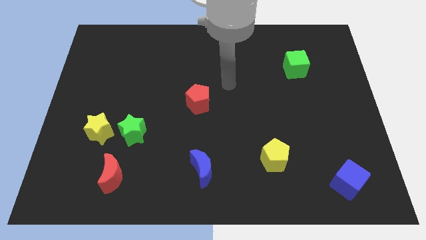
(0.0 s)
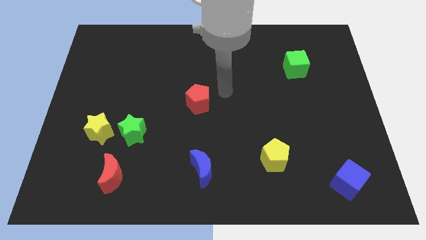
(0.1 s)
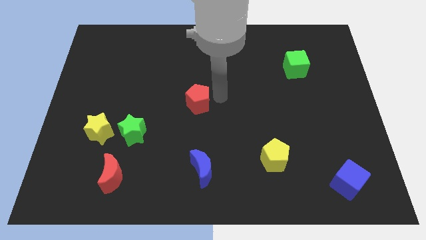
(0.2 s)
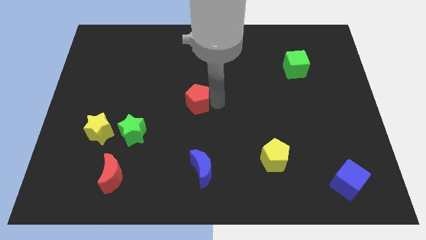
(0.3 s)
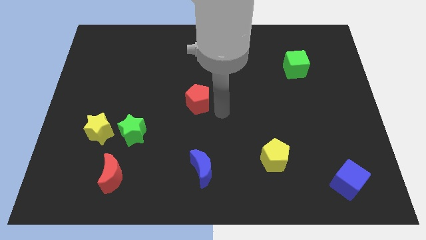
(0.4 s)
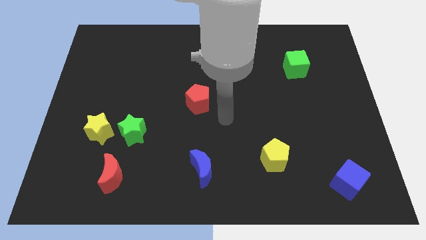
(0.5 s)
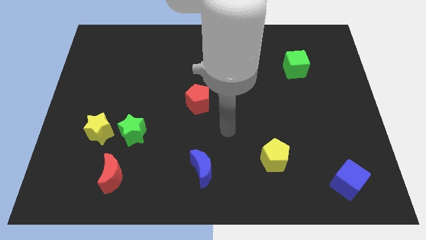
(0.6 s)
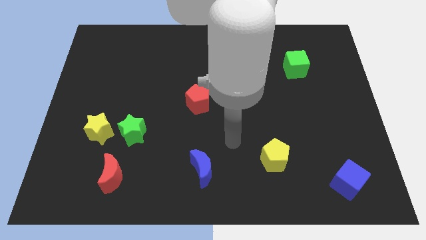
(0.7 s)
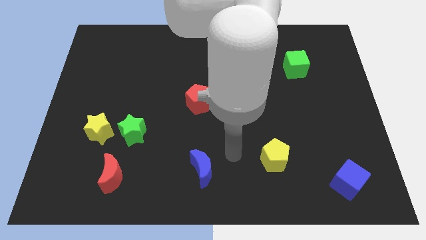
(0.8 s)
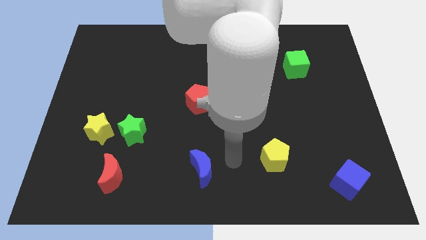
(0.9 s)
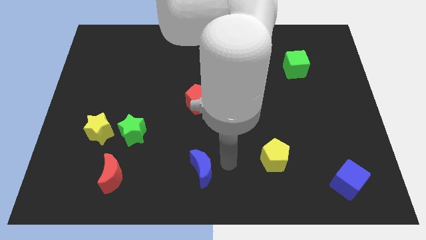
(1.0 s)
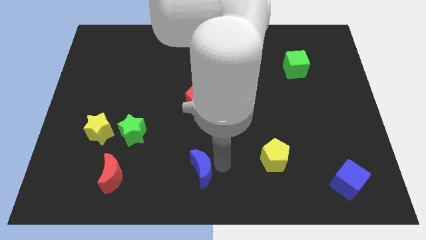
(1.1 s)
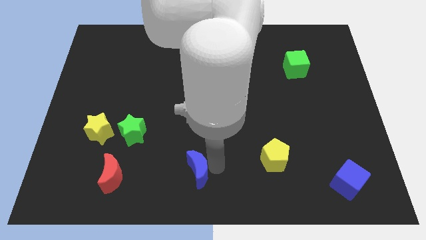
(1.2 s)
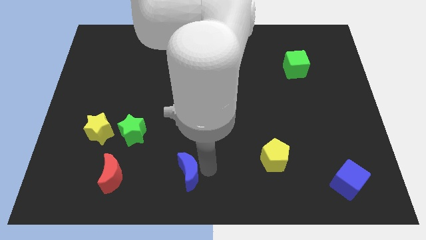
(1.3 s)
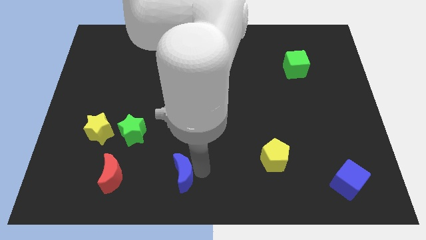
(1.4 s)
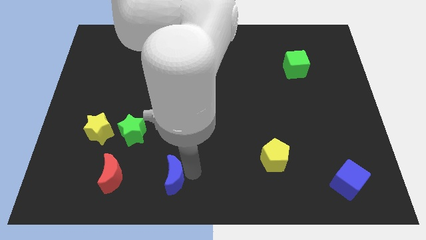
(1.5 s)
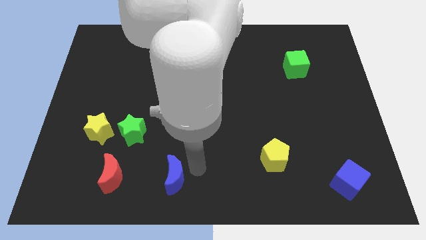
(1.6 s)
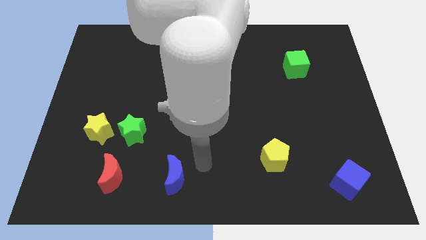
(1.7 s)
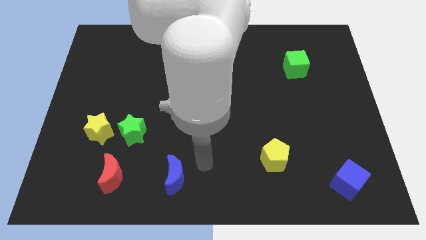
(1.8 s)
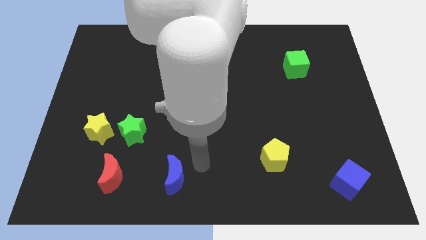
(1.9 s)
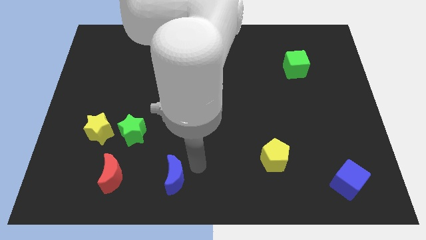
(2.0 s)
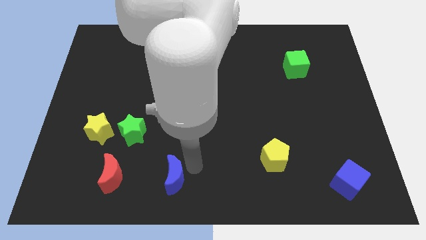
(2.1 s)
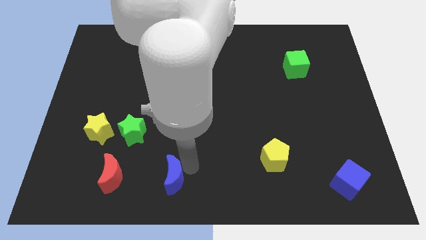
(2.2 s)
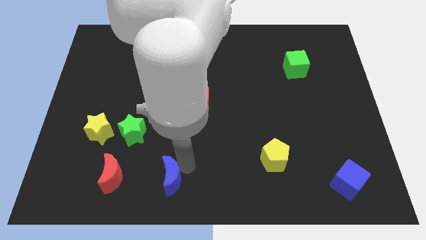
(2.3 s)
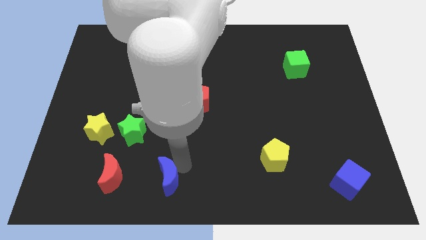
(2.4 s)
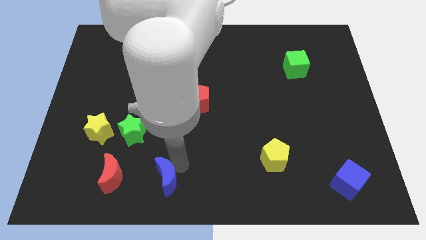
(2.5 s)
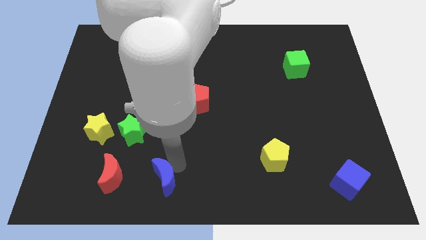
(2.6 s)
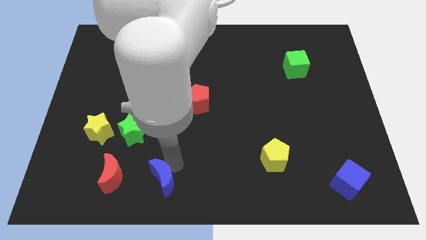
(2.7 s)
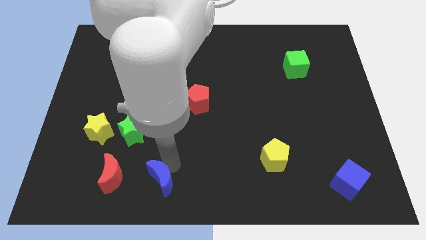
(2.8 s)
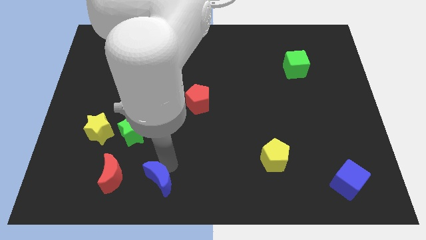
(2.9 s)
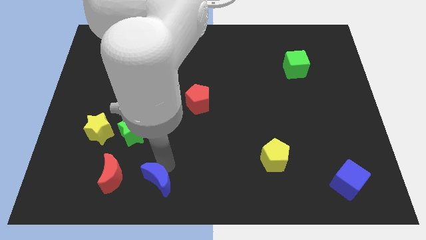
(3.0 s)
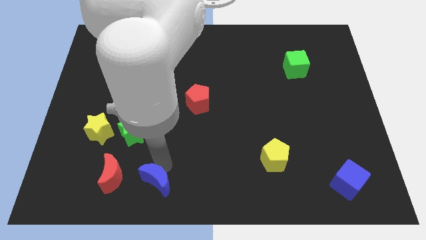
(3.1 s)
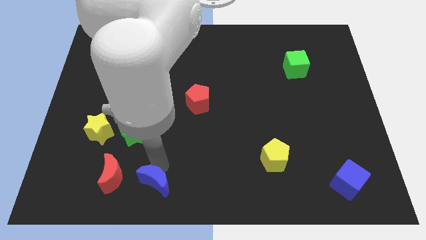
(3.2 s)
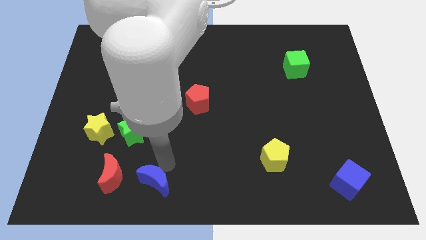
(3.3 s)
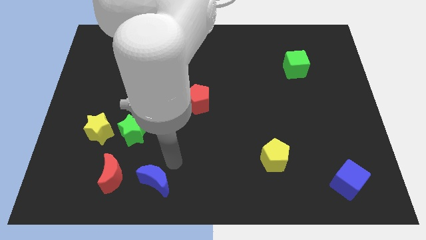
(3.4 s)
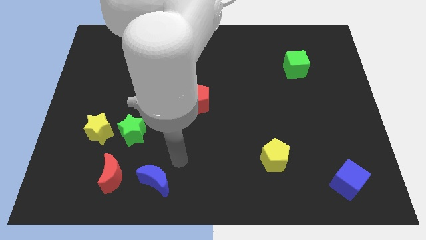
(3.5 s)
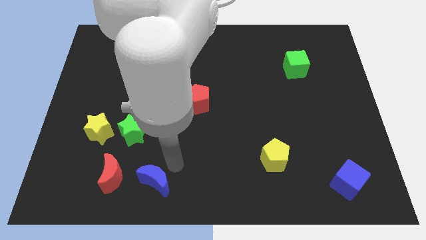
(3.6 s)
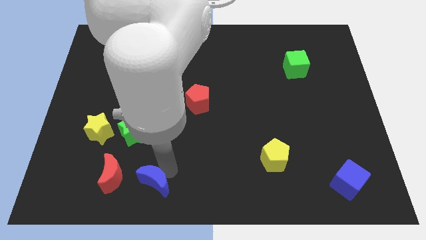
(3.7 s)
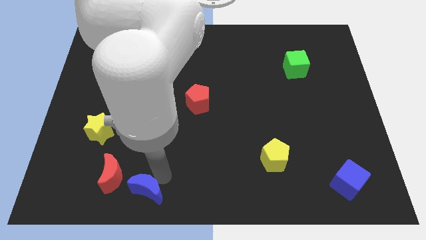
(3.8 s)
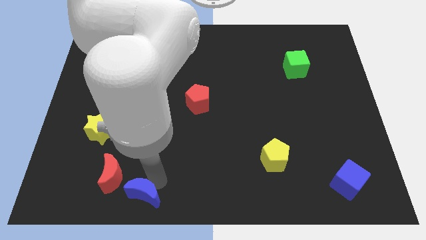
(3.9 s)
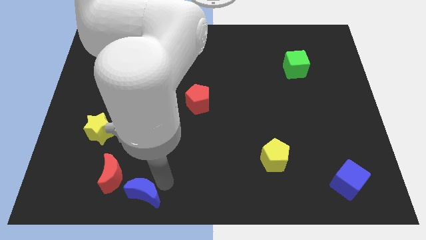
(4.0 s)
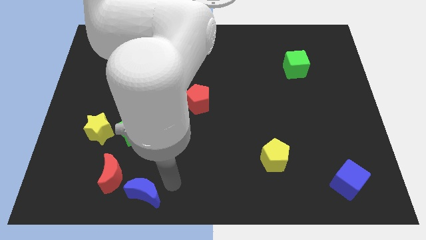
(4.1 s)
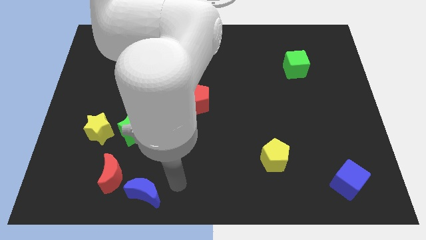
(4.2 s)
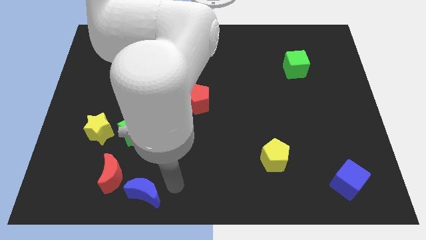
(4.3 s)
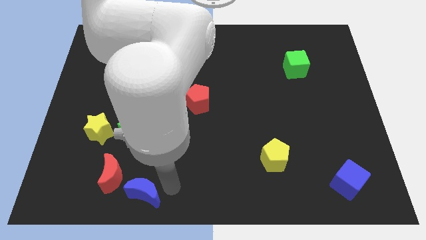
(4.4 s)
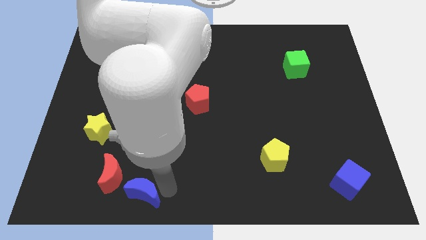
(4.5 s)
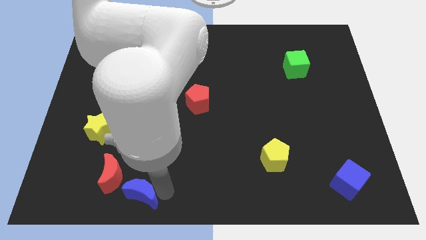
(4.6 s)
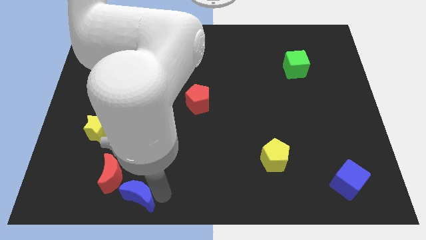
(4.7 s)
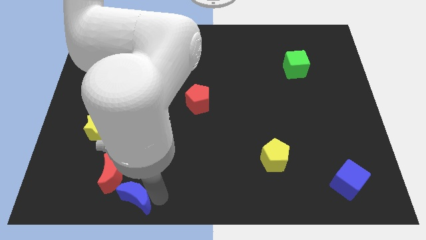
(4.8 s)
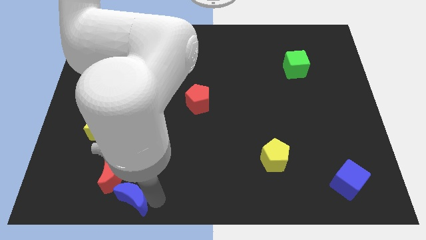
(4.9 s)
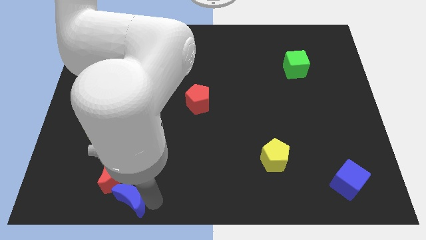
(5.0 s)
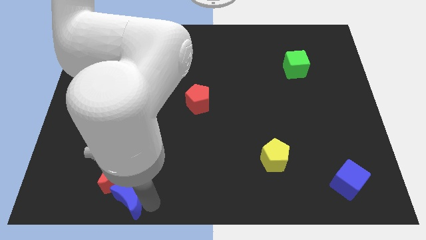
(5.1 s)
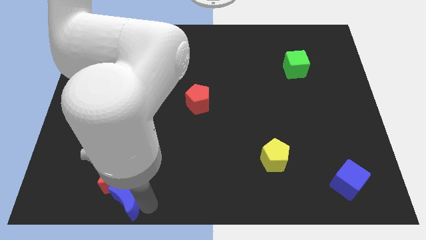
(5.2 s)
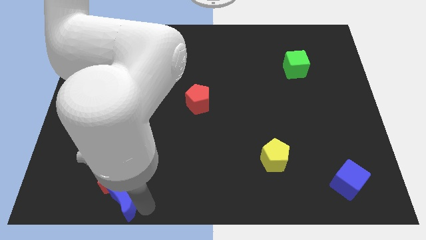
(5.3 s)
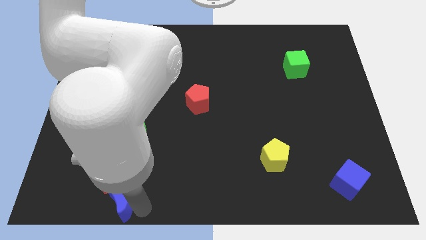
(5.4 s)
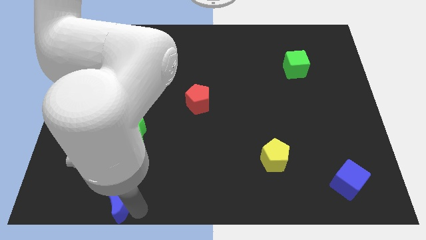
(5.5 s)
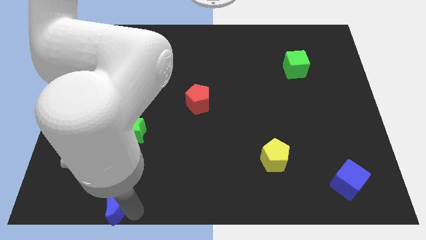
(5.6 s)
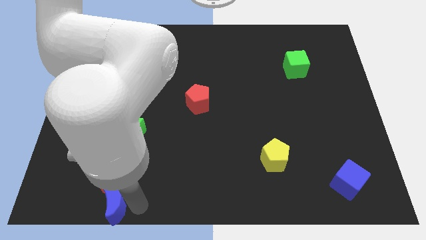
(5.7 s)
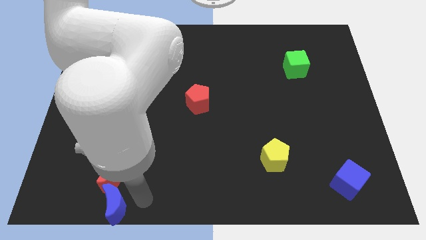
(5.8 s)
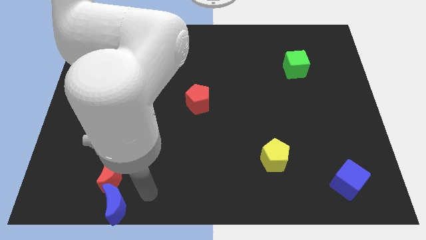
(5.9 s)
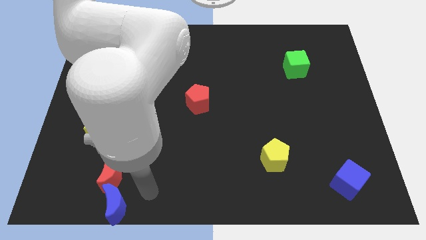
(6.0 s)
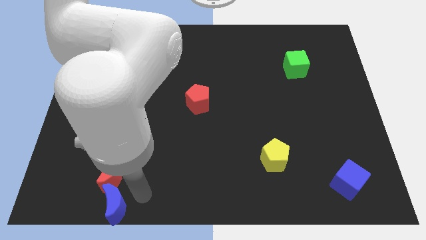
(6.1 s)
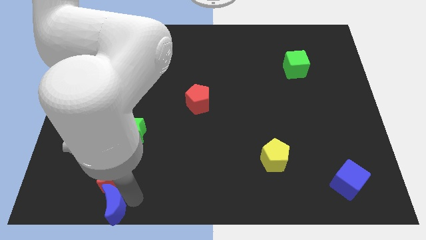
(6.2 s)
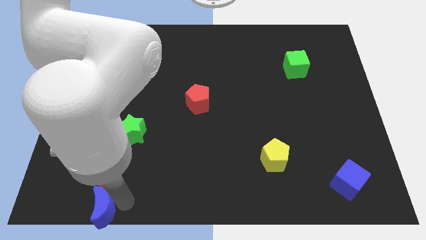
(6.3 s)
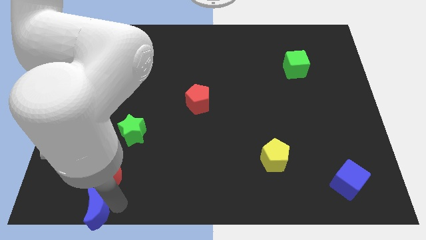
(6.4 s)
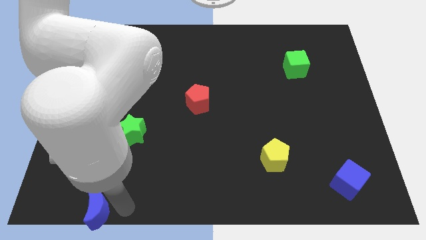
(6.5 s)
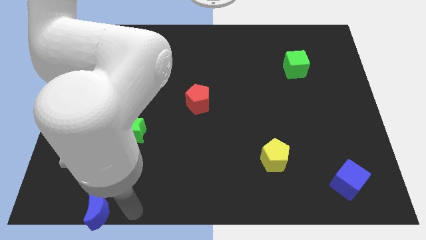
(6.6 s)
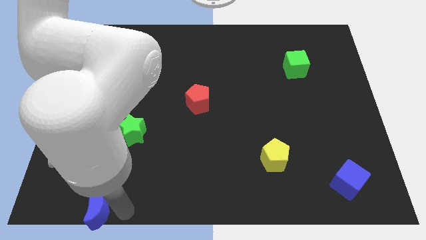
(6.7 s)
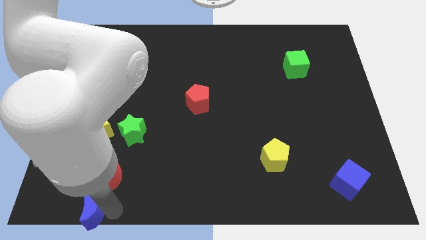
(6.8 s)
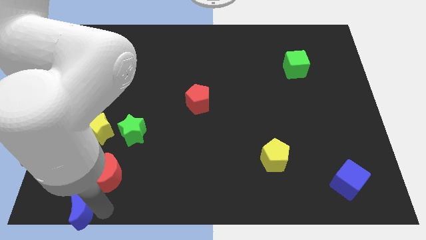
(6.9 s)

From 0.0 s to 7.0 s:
slide the blue moon to the bottom left of the board
